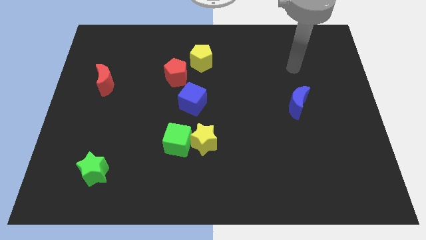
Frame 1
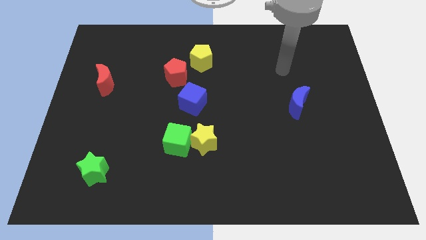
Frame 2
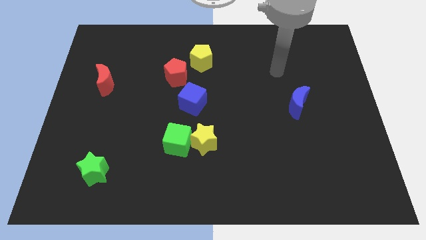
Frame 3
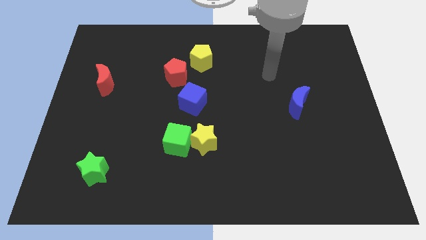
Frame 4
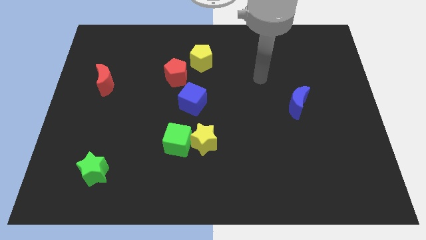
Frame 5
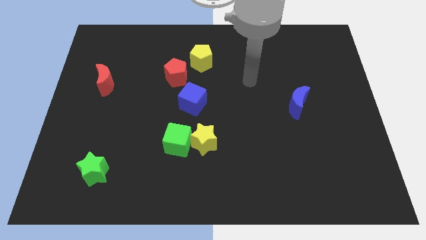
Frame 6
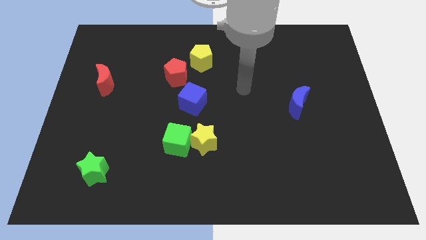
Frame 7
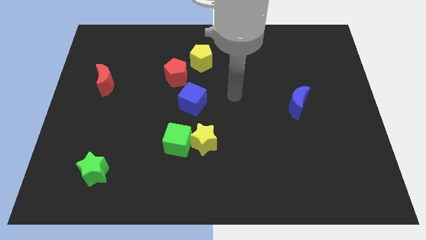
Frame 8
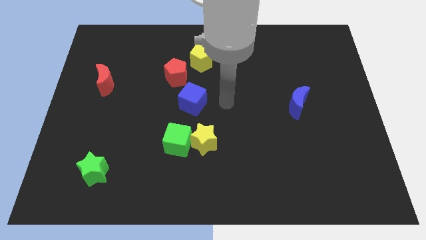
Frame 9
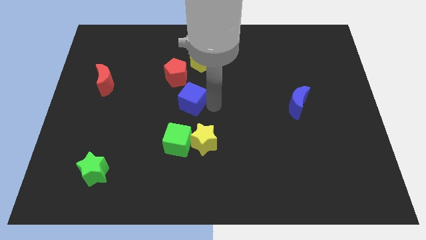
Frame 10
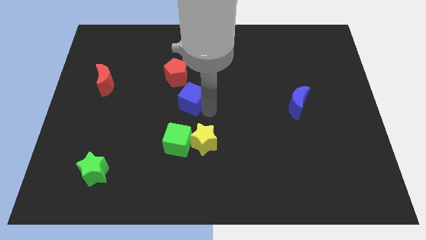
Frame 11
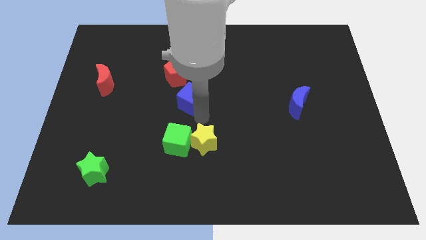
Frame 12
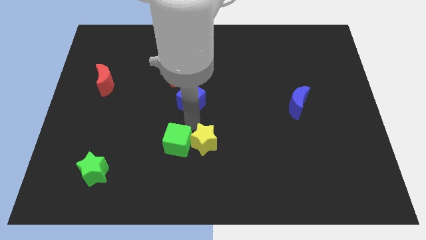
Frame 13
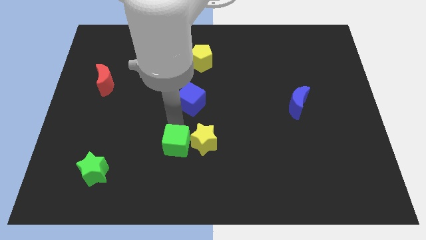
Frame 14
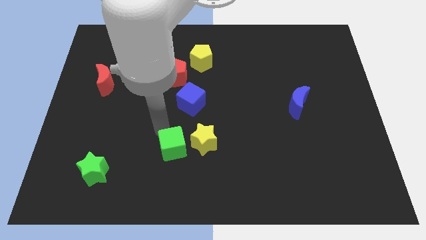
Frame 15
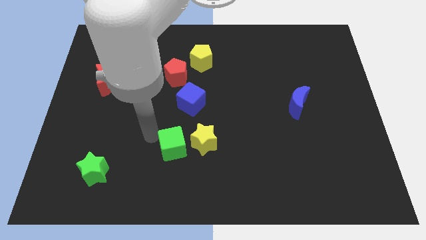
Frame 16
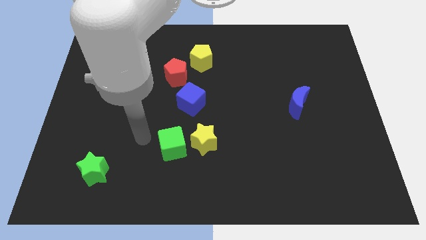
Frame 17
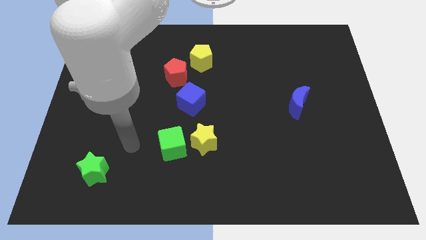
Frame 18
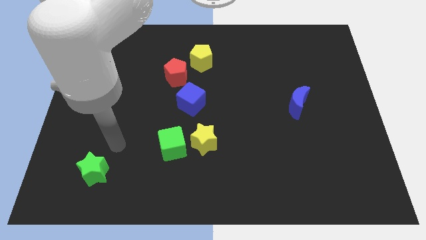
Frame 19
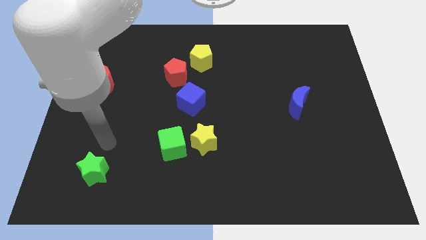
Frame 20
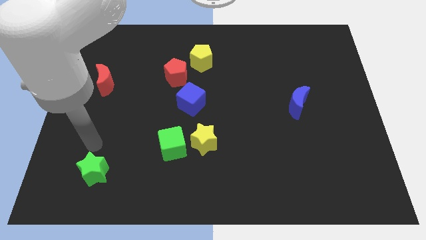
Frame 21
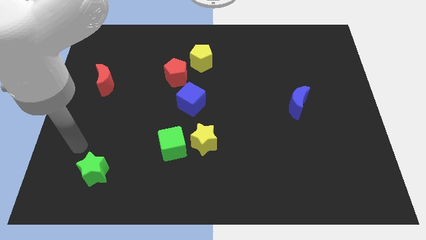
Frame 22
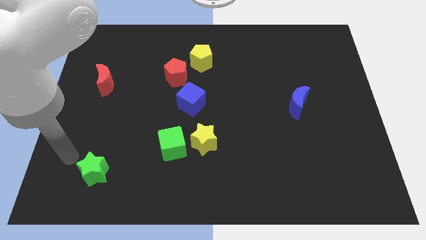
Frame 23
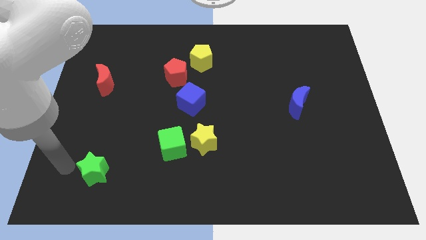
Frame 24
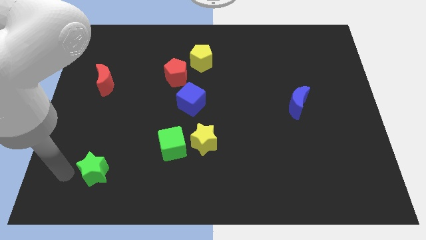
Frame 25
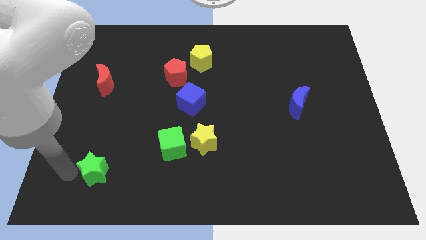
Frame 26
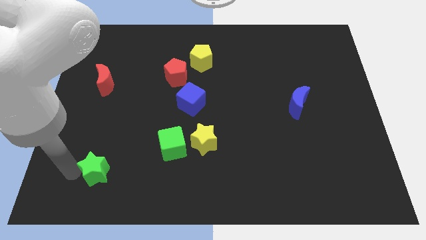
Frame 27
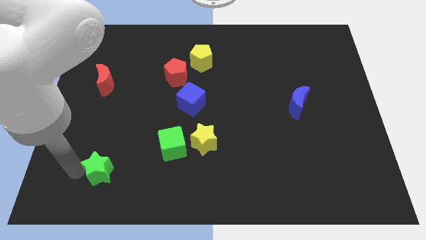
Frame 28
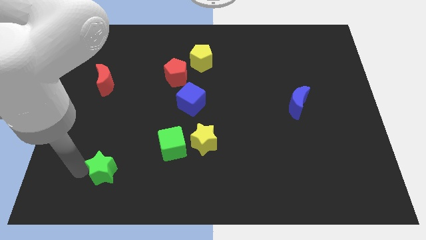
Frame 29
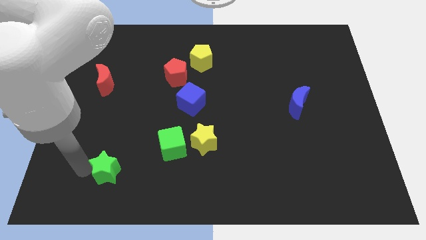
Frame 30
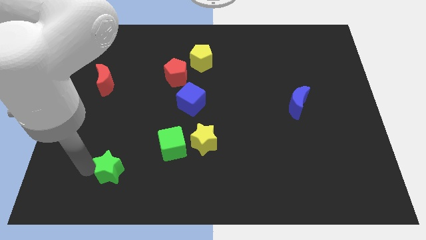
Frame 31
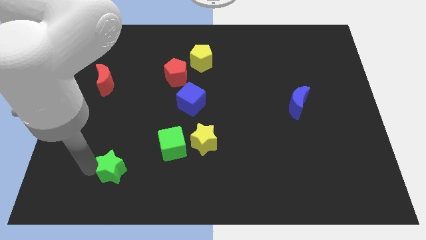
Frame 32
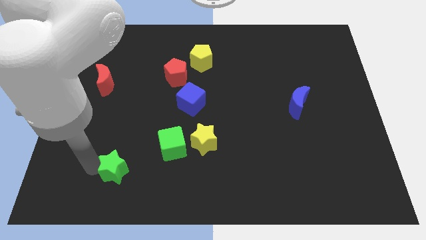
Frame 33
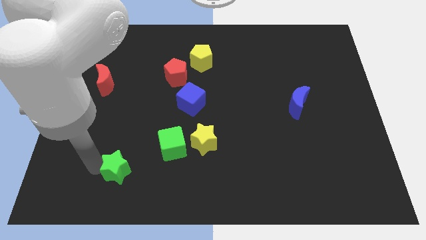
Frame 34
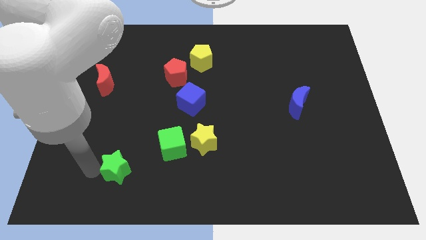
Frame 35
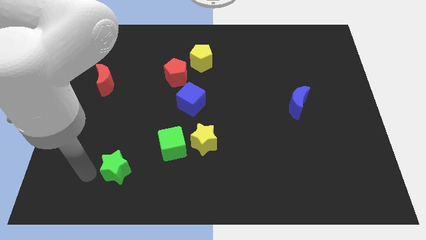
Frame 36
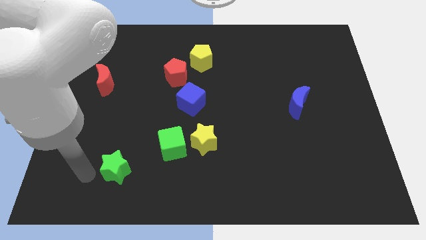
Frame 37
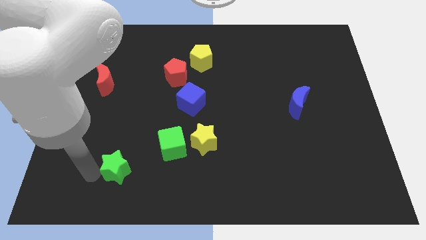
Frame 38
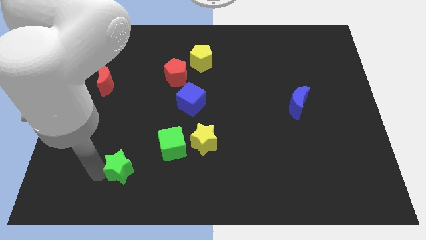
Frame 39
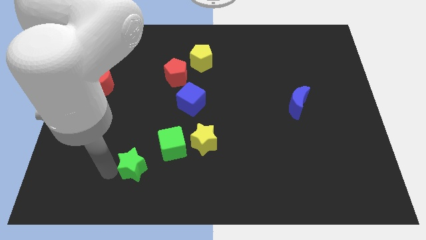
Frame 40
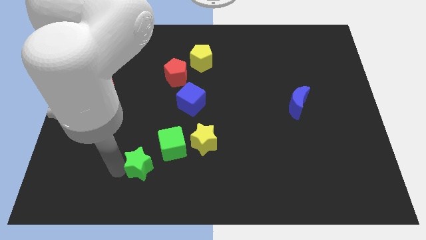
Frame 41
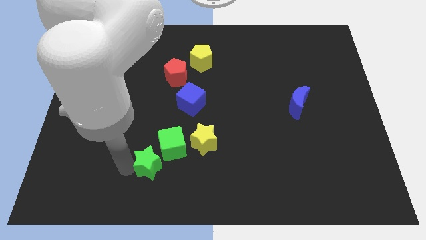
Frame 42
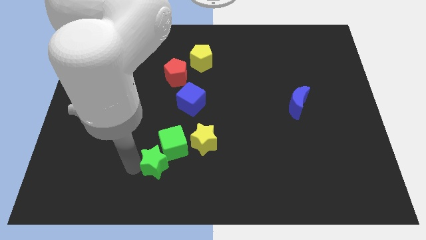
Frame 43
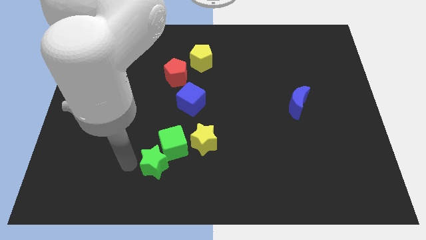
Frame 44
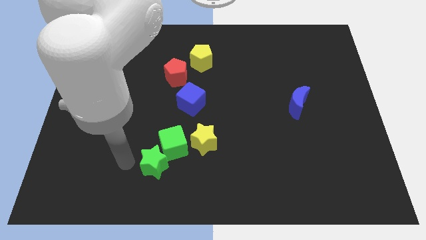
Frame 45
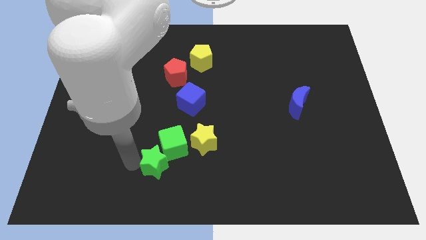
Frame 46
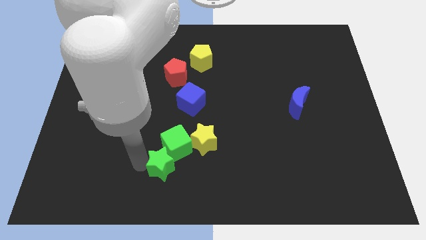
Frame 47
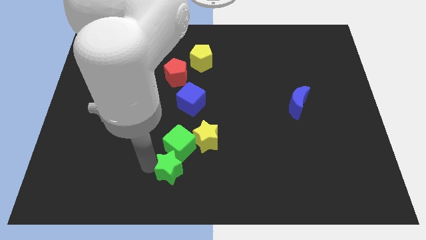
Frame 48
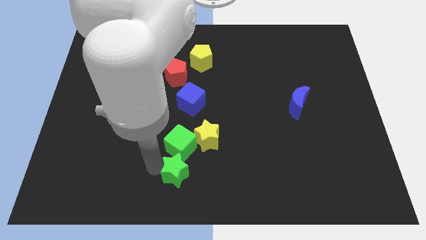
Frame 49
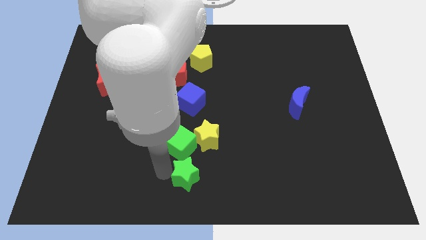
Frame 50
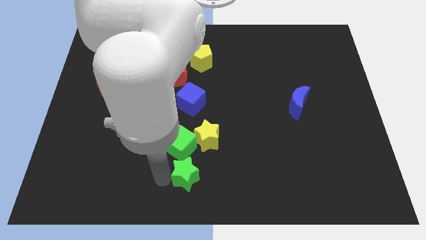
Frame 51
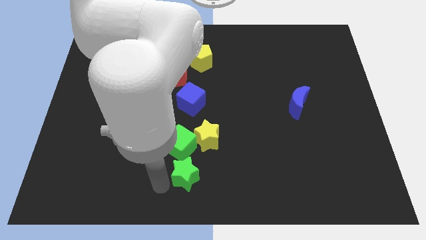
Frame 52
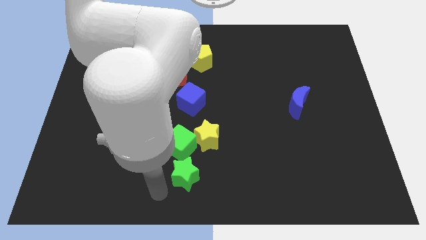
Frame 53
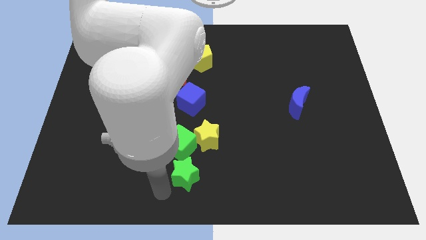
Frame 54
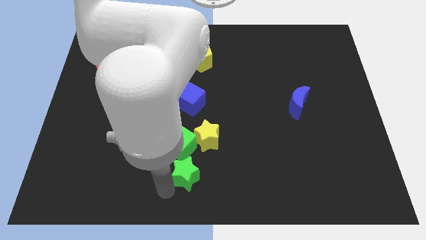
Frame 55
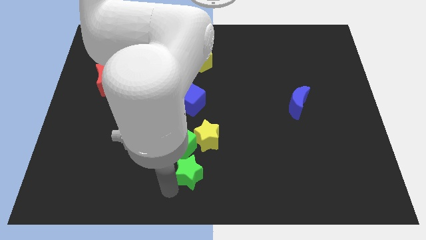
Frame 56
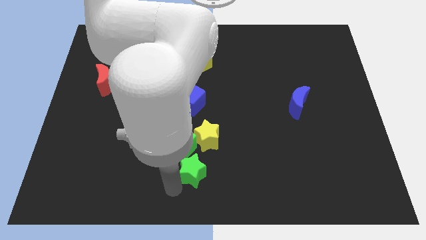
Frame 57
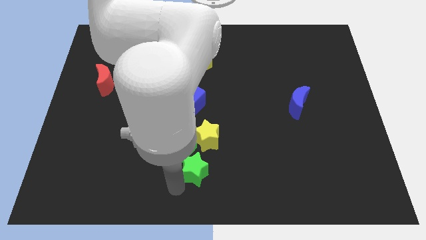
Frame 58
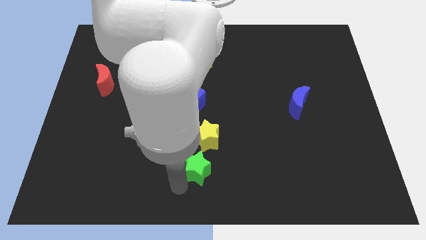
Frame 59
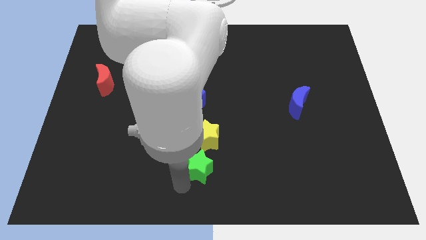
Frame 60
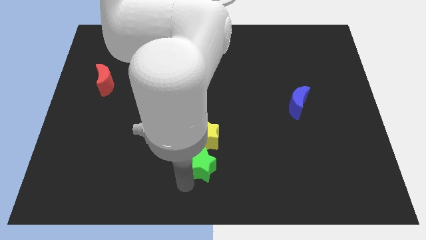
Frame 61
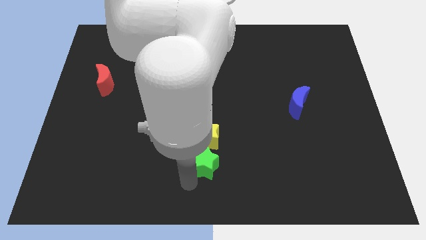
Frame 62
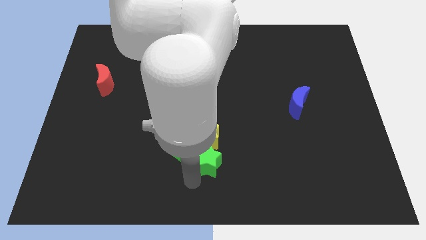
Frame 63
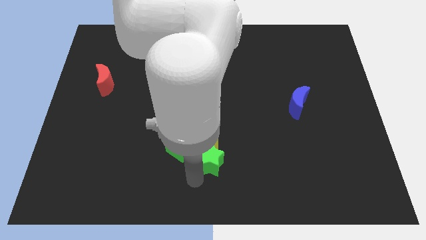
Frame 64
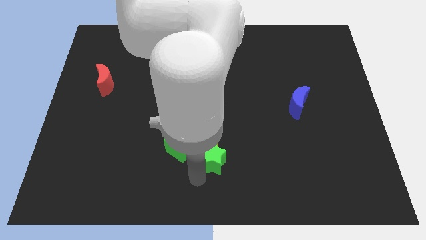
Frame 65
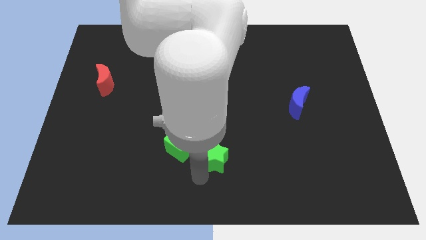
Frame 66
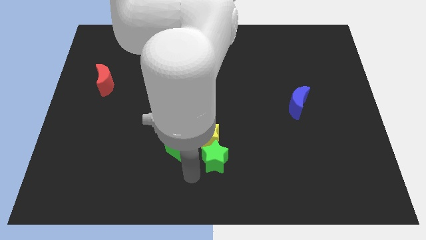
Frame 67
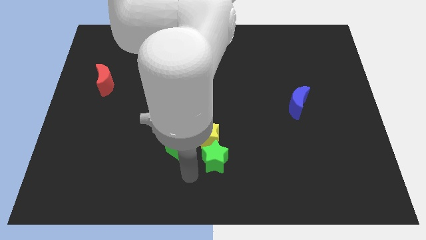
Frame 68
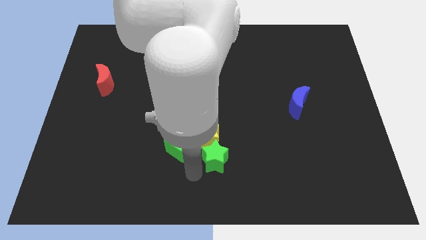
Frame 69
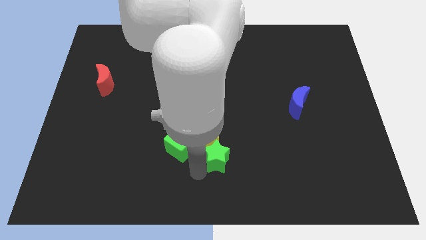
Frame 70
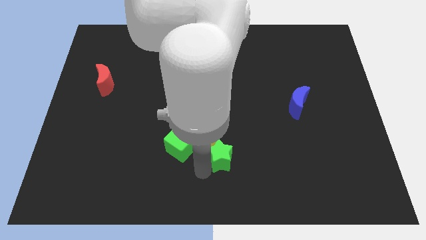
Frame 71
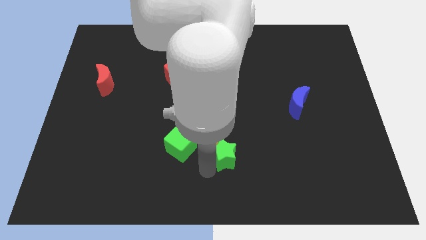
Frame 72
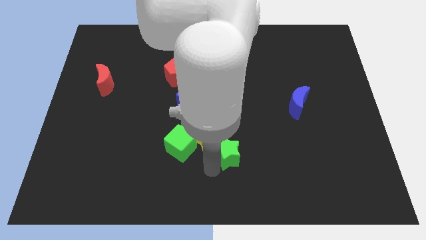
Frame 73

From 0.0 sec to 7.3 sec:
put the green star right of the yellow star

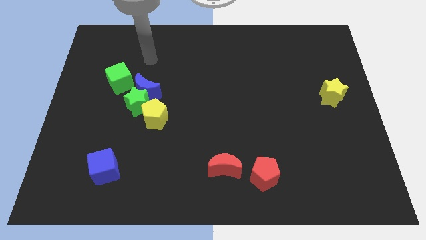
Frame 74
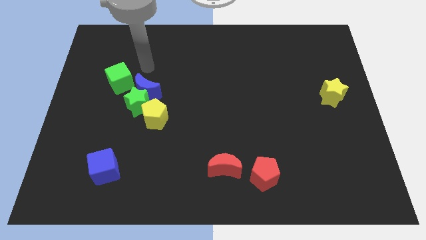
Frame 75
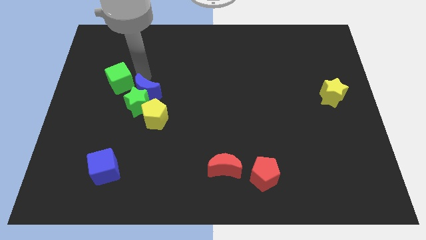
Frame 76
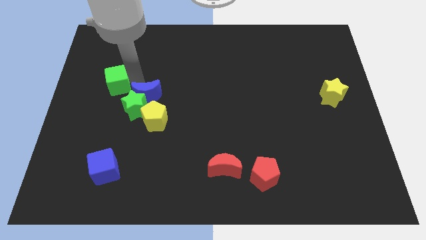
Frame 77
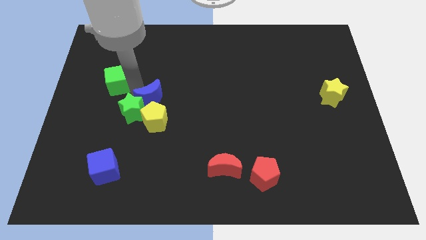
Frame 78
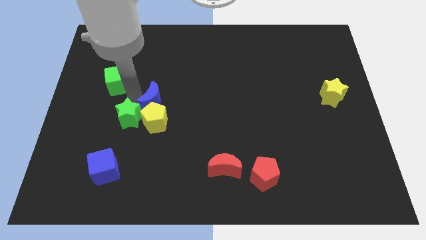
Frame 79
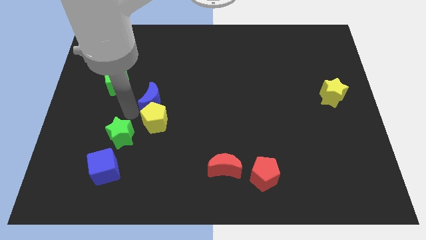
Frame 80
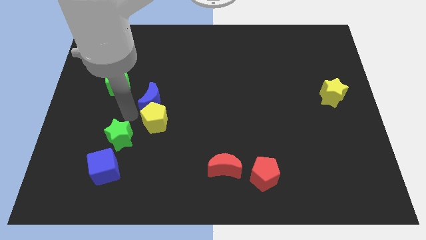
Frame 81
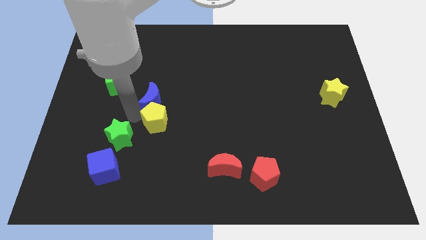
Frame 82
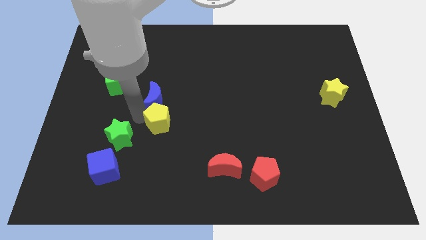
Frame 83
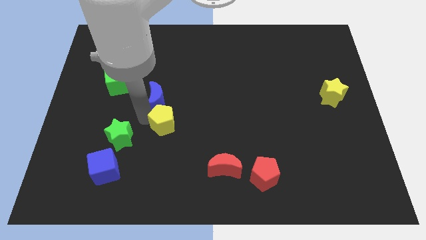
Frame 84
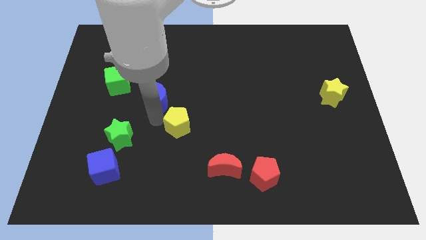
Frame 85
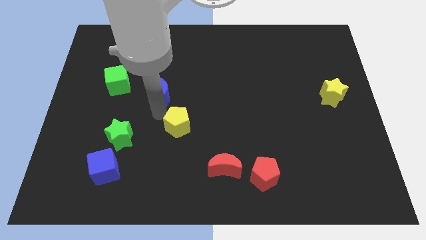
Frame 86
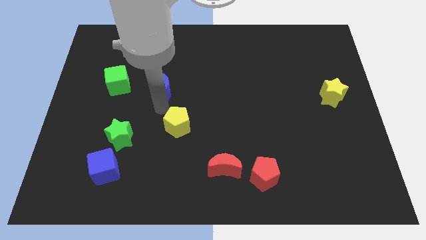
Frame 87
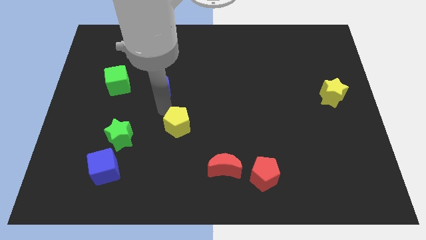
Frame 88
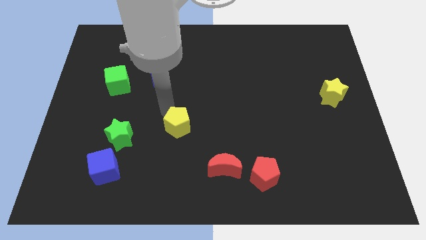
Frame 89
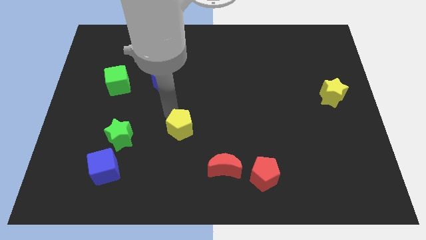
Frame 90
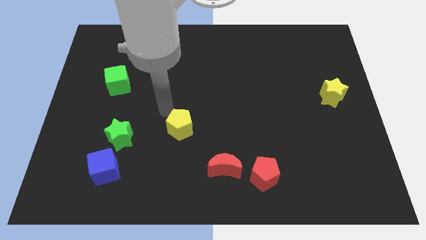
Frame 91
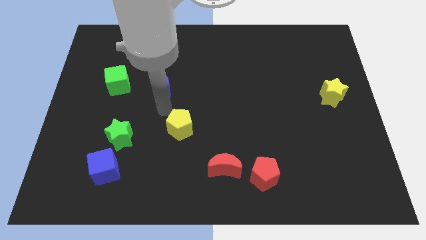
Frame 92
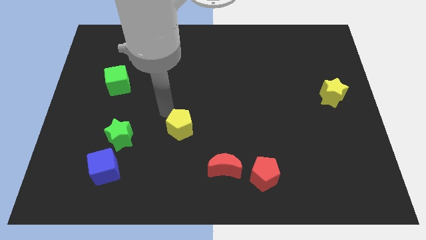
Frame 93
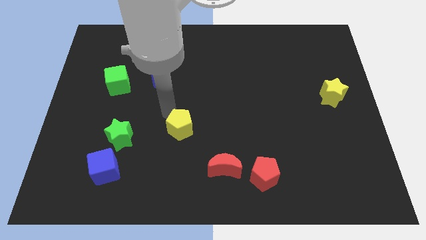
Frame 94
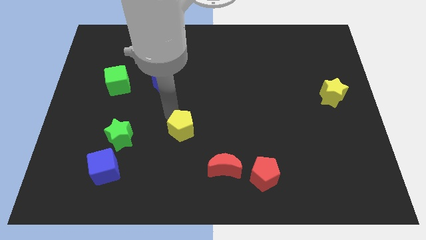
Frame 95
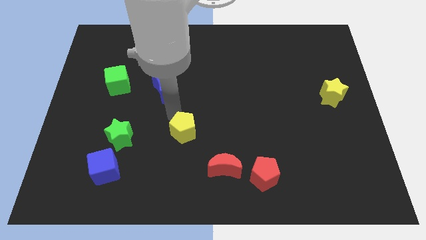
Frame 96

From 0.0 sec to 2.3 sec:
put the yellow pentagon to the top left of the red moon
